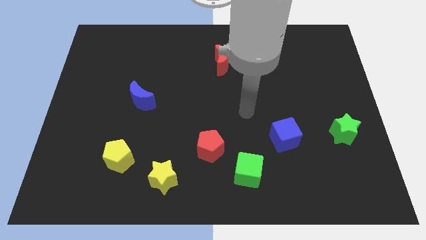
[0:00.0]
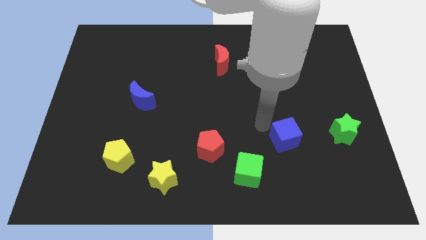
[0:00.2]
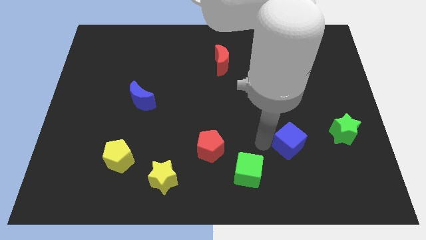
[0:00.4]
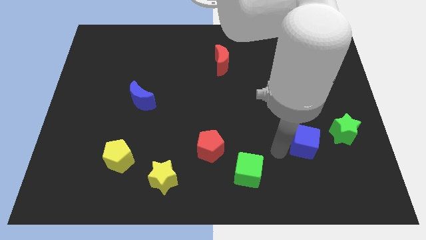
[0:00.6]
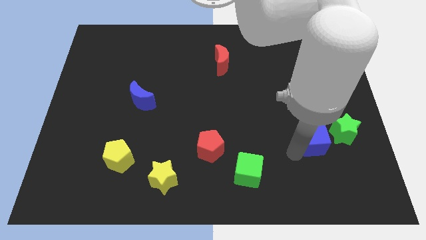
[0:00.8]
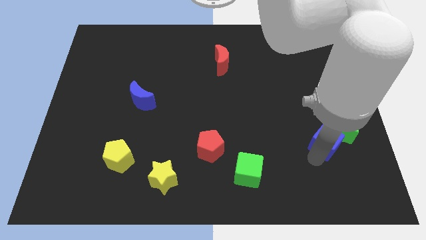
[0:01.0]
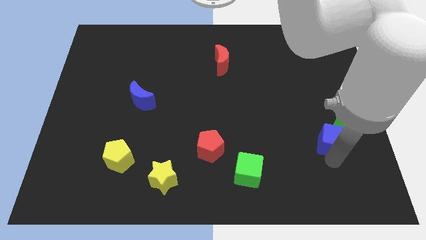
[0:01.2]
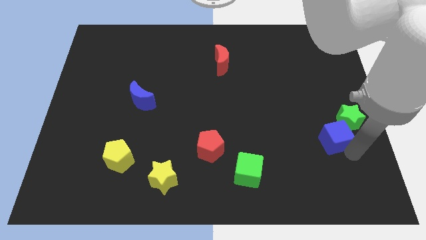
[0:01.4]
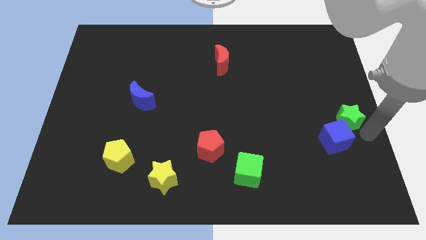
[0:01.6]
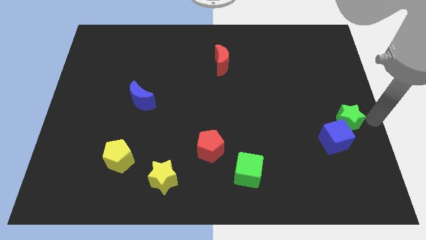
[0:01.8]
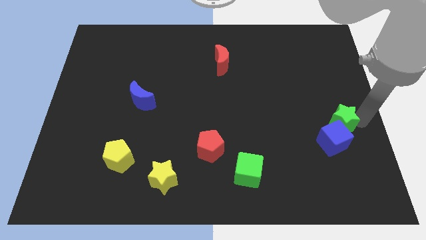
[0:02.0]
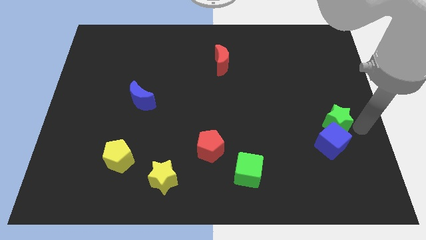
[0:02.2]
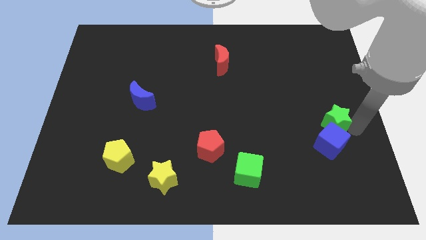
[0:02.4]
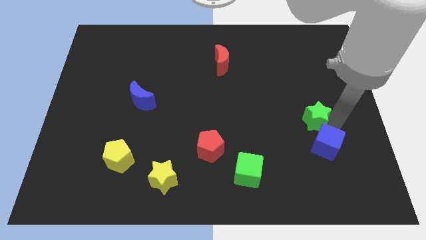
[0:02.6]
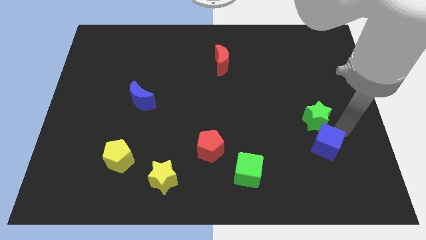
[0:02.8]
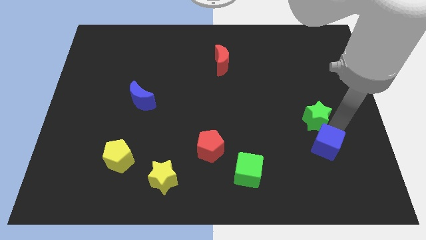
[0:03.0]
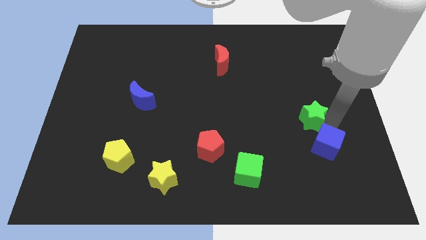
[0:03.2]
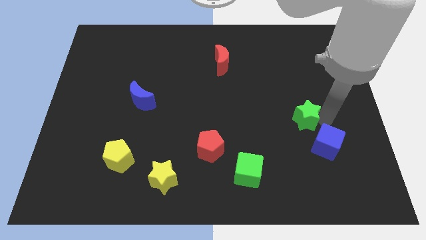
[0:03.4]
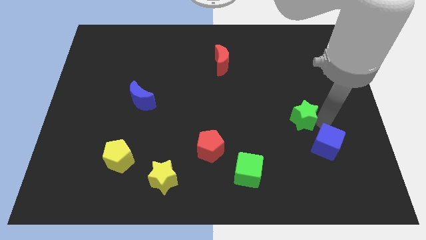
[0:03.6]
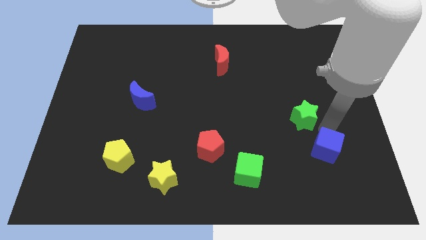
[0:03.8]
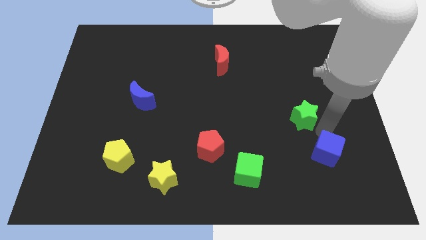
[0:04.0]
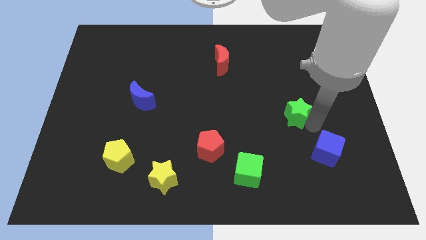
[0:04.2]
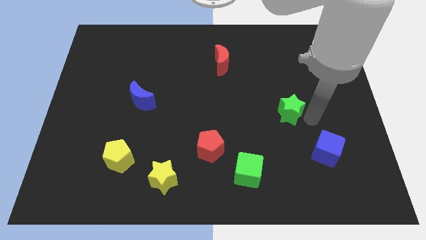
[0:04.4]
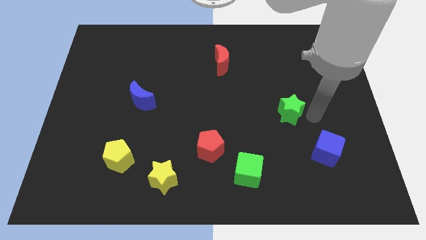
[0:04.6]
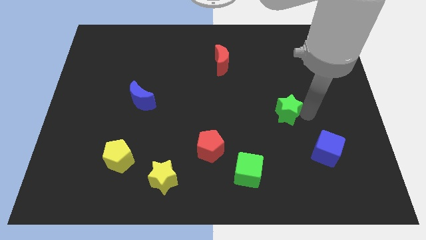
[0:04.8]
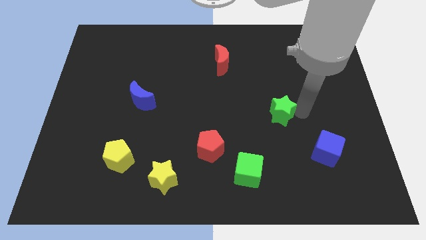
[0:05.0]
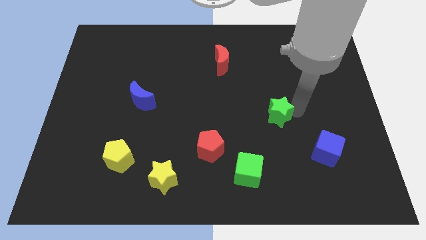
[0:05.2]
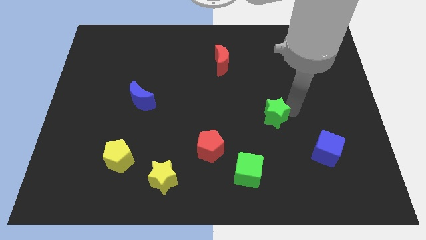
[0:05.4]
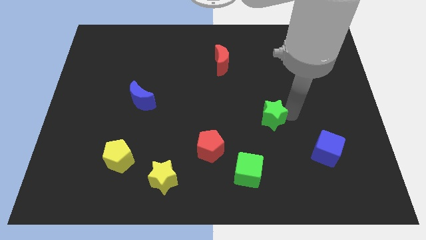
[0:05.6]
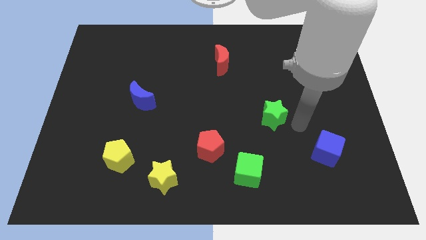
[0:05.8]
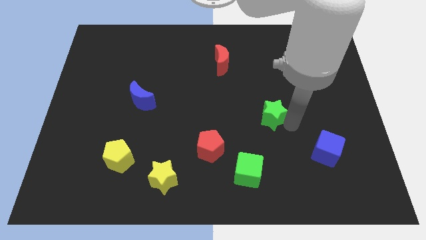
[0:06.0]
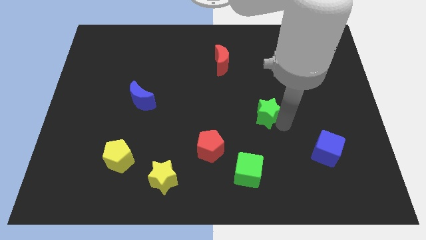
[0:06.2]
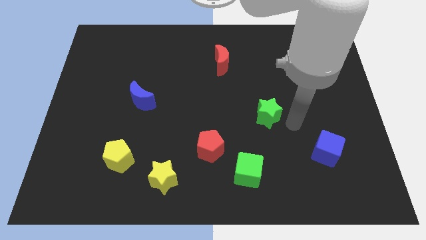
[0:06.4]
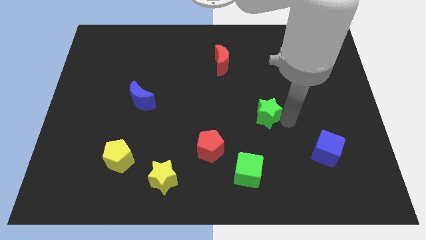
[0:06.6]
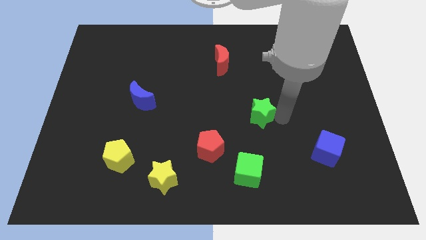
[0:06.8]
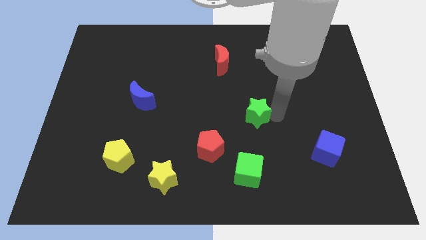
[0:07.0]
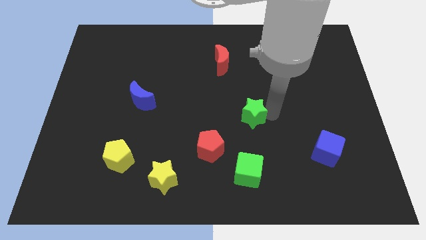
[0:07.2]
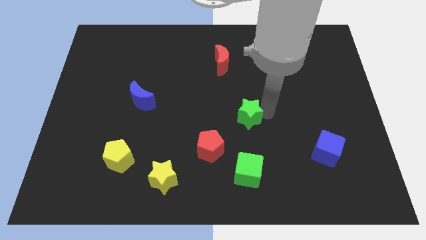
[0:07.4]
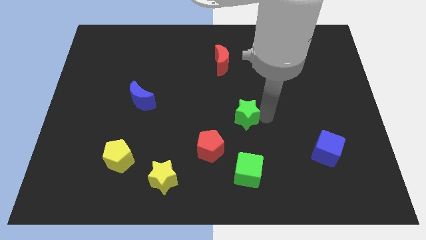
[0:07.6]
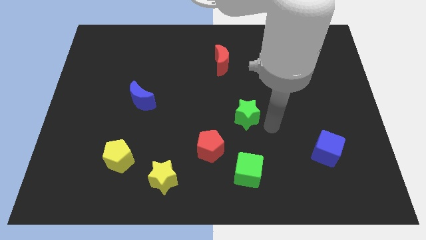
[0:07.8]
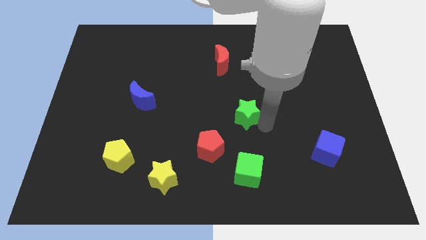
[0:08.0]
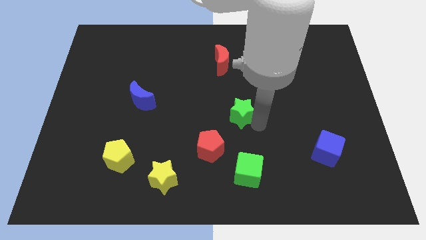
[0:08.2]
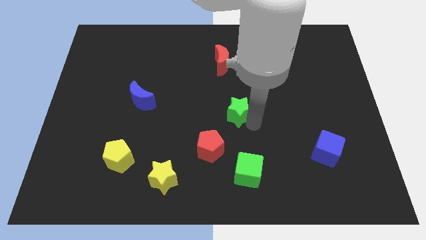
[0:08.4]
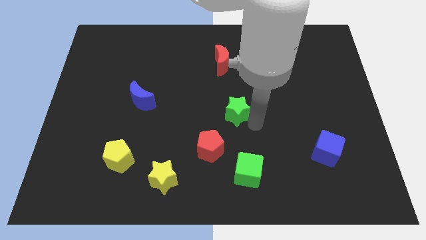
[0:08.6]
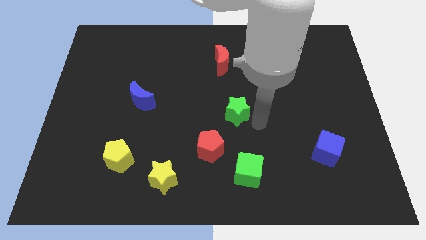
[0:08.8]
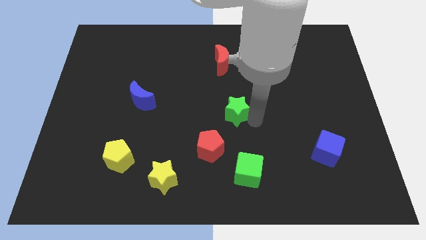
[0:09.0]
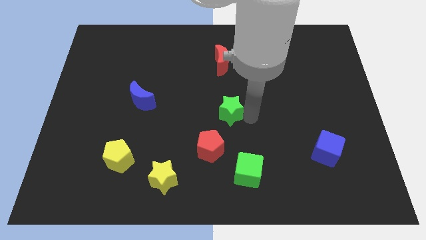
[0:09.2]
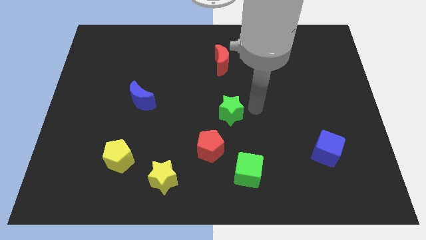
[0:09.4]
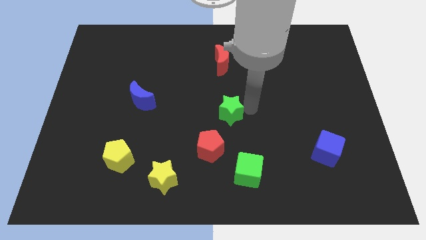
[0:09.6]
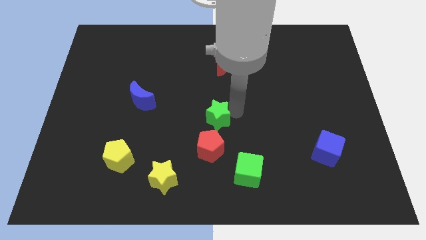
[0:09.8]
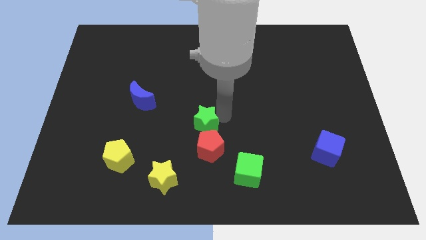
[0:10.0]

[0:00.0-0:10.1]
push the green star diagonally up and to the left of the red pentagon

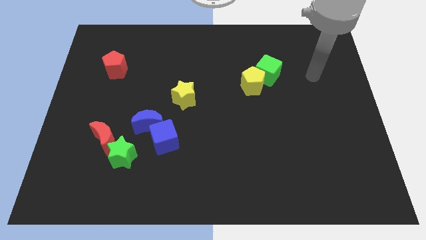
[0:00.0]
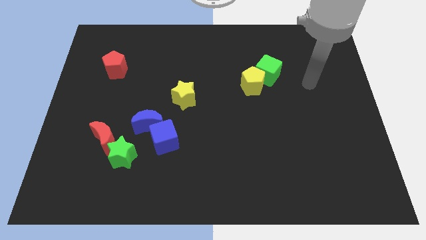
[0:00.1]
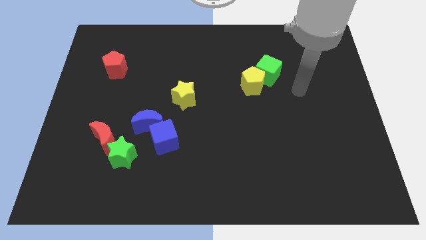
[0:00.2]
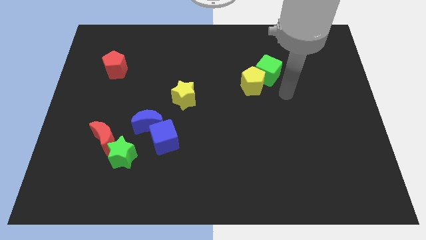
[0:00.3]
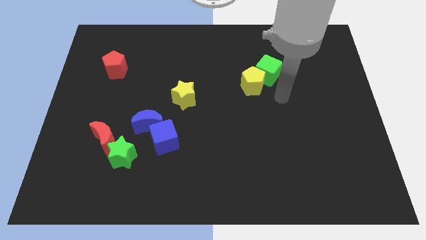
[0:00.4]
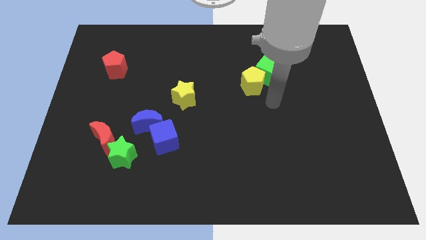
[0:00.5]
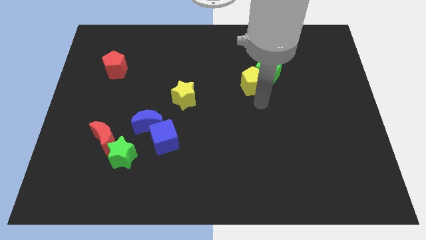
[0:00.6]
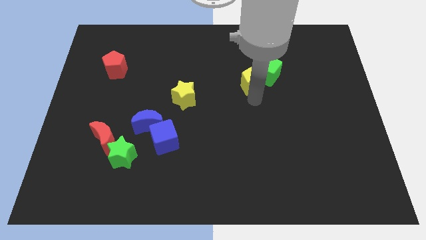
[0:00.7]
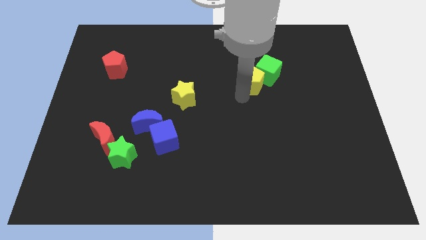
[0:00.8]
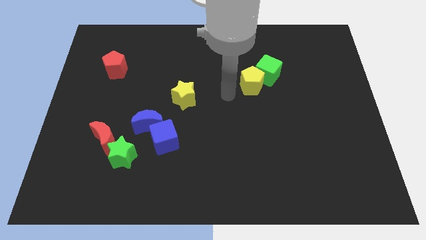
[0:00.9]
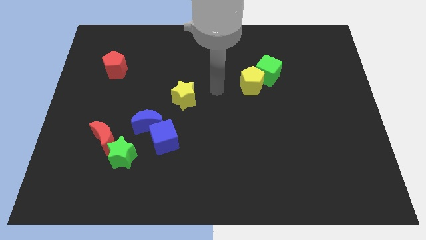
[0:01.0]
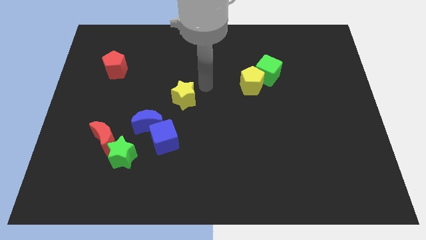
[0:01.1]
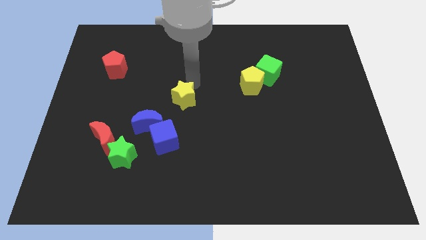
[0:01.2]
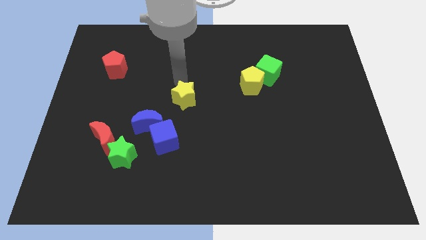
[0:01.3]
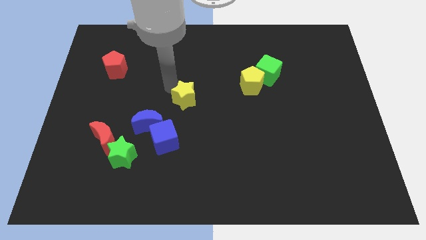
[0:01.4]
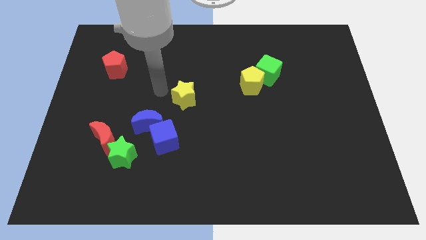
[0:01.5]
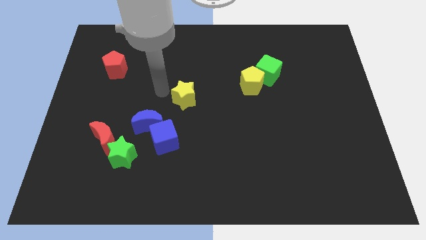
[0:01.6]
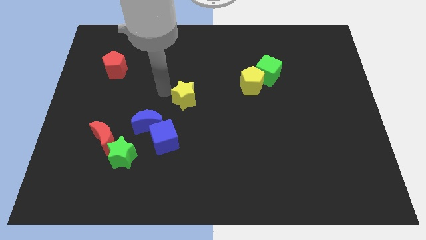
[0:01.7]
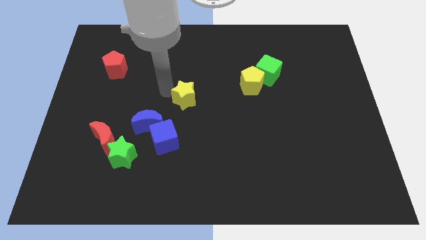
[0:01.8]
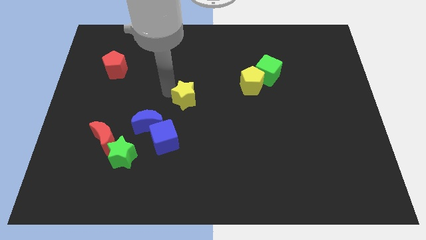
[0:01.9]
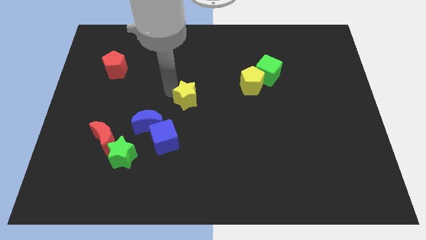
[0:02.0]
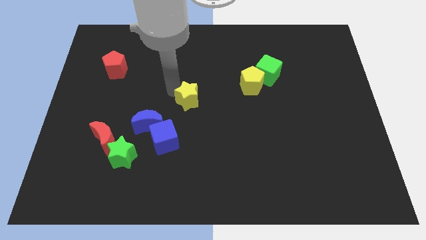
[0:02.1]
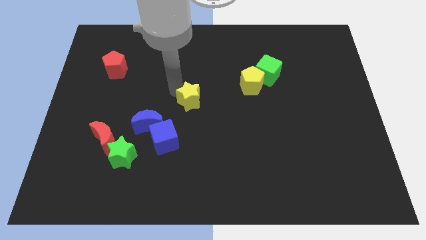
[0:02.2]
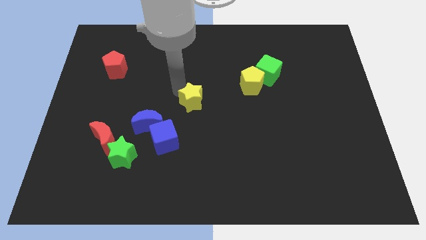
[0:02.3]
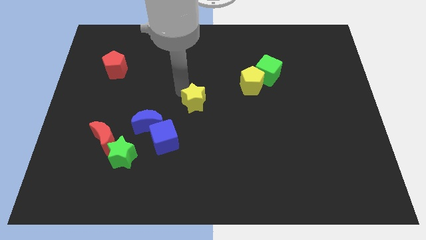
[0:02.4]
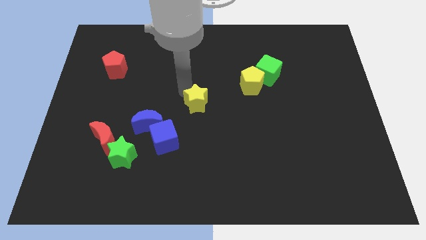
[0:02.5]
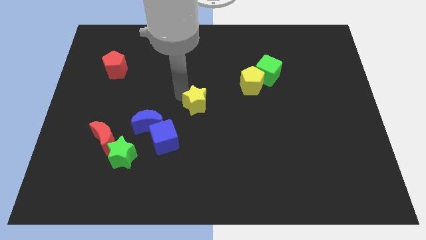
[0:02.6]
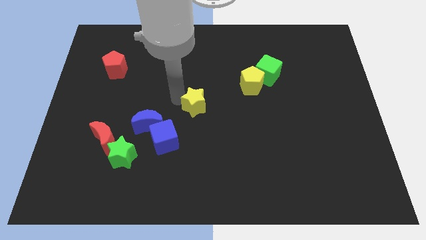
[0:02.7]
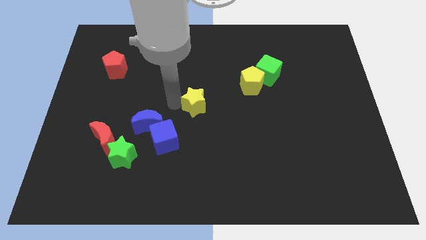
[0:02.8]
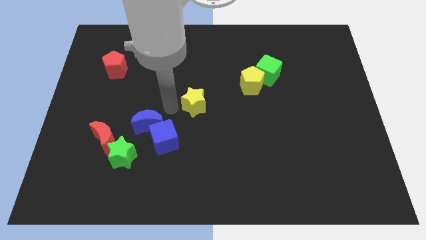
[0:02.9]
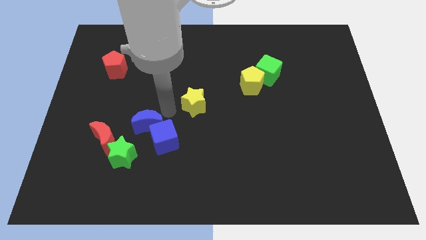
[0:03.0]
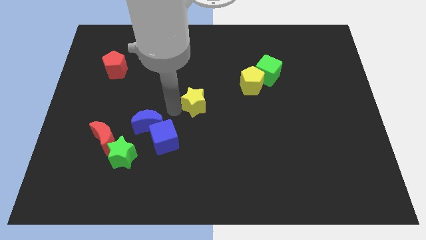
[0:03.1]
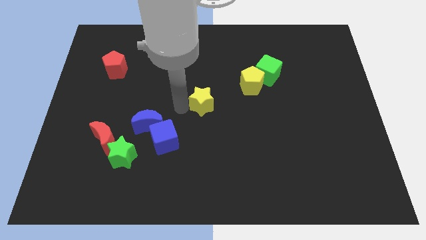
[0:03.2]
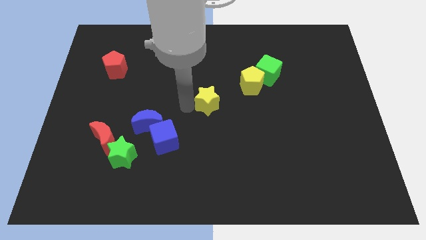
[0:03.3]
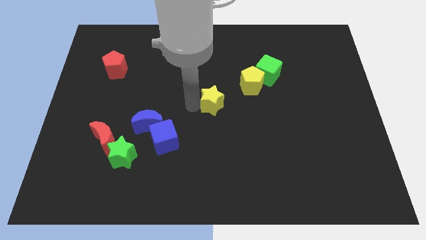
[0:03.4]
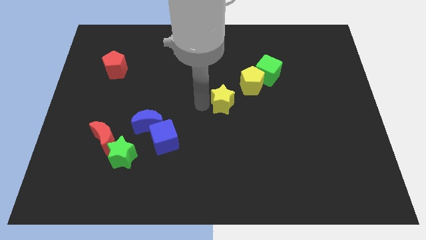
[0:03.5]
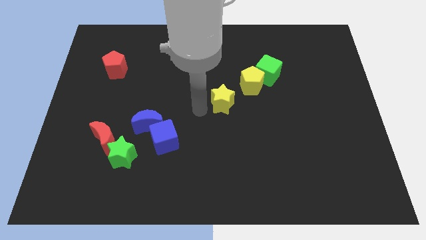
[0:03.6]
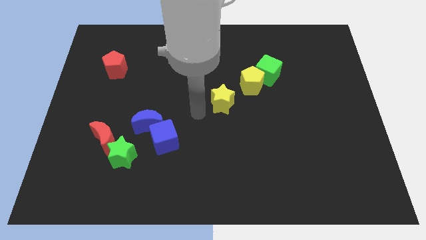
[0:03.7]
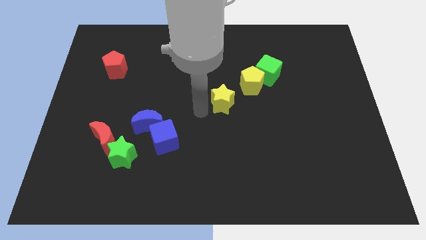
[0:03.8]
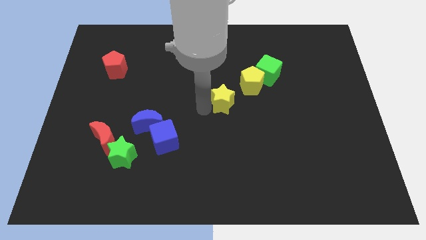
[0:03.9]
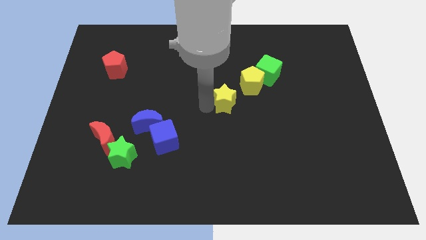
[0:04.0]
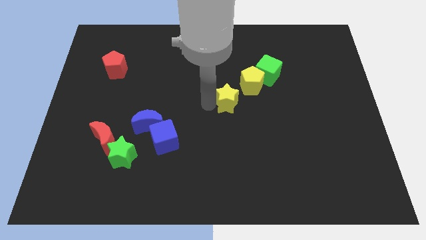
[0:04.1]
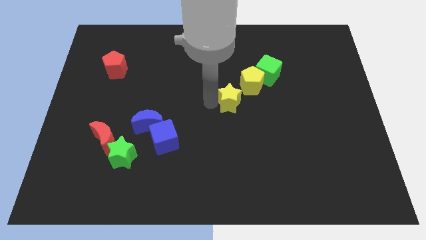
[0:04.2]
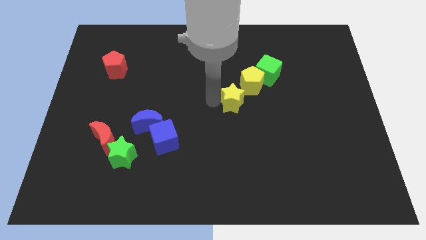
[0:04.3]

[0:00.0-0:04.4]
slide the yellow star to the bottom left side of the green cube
